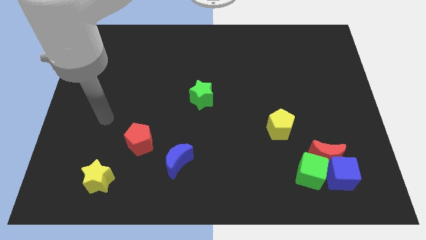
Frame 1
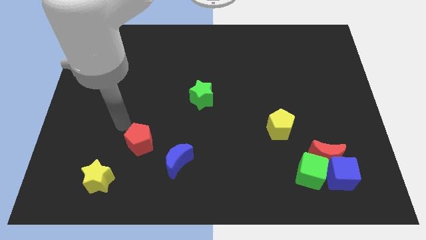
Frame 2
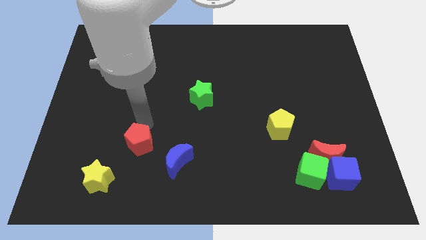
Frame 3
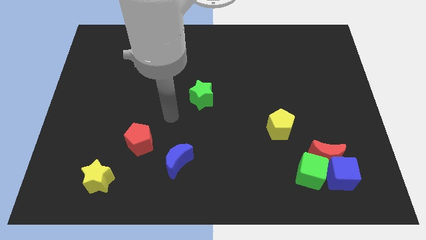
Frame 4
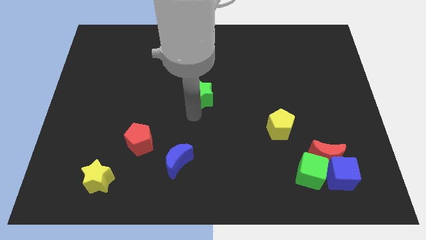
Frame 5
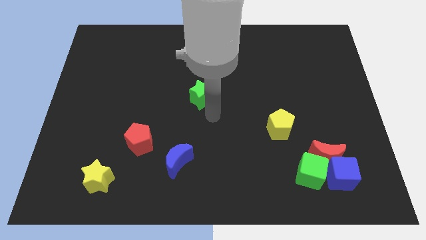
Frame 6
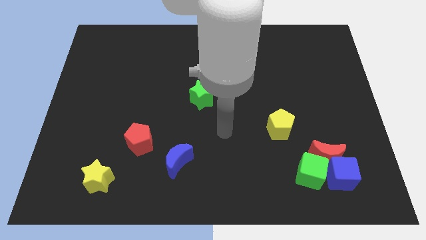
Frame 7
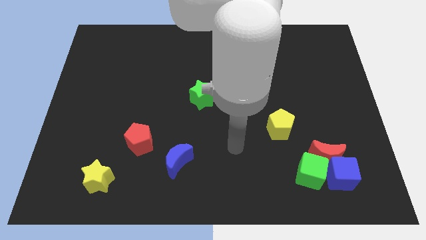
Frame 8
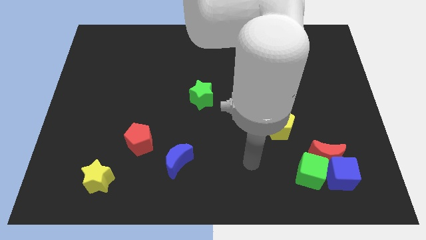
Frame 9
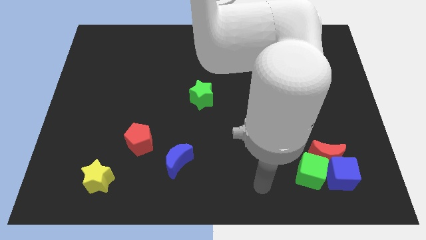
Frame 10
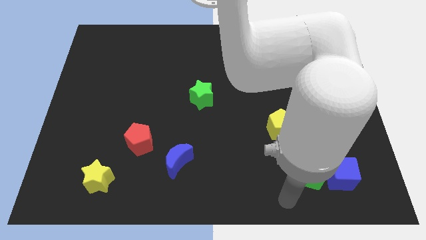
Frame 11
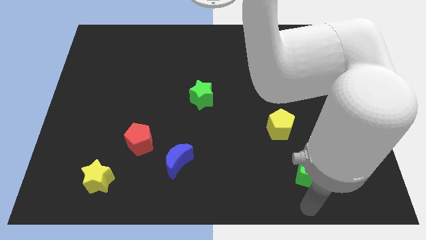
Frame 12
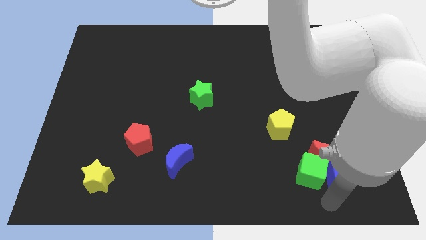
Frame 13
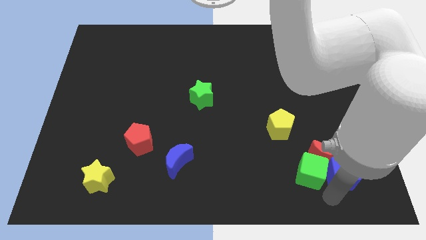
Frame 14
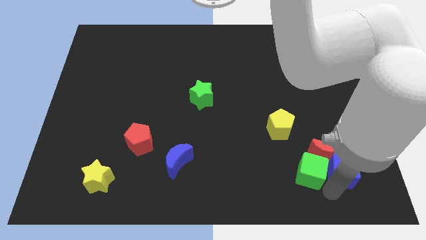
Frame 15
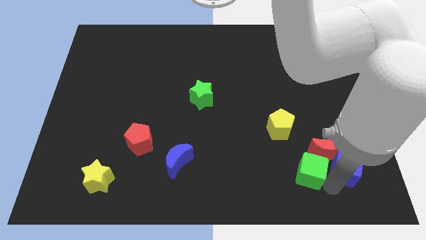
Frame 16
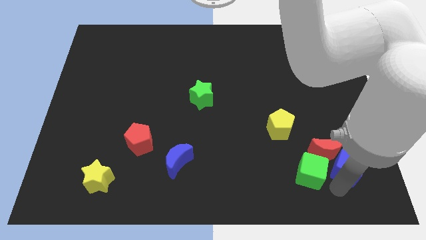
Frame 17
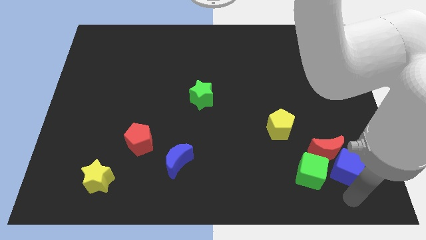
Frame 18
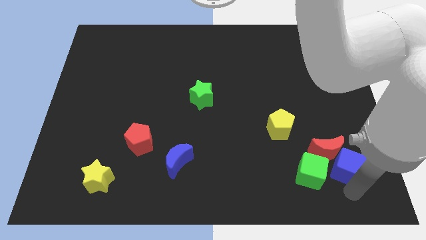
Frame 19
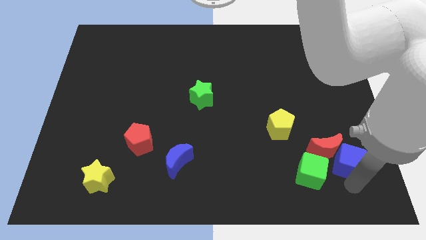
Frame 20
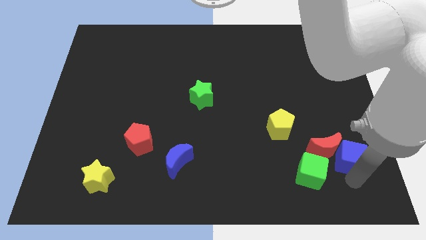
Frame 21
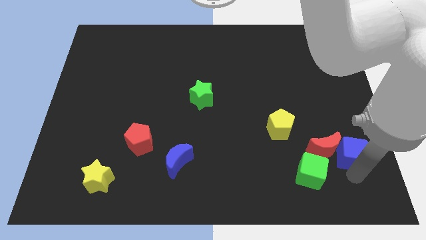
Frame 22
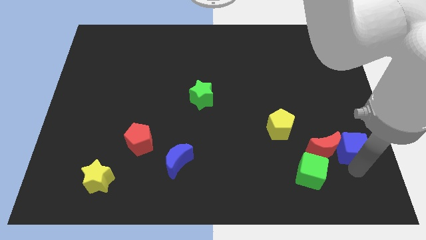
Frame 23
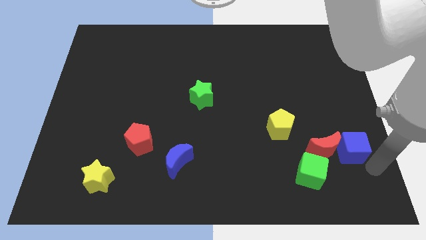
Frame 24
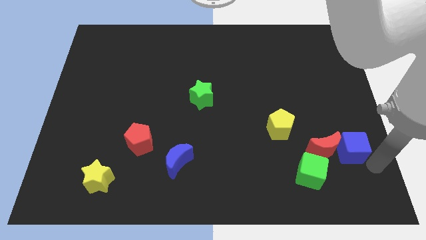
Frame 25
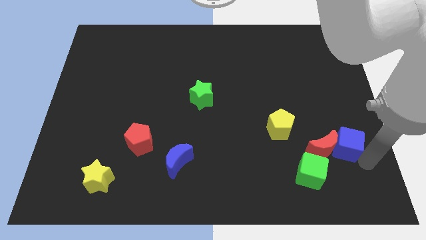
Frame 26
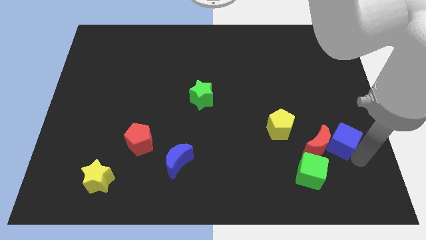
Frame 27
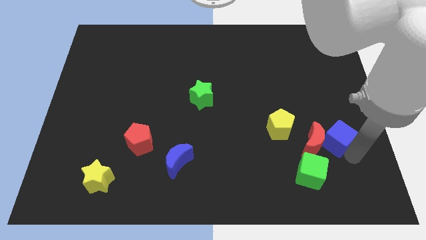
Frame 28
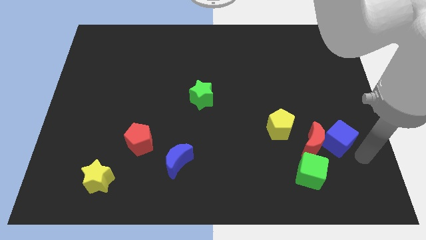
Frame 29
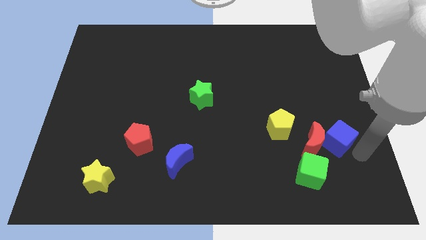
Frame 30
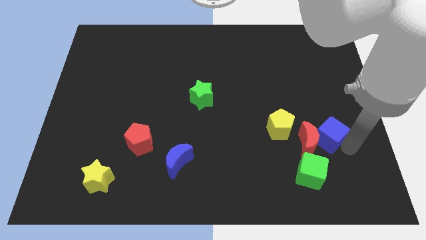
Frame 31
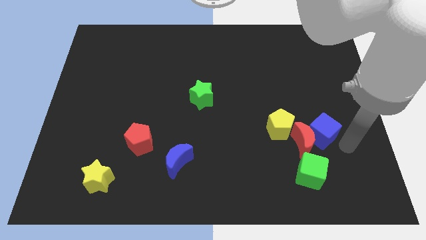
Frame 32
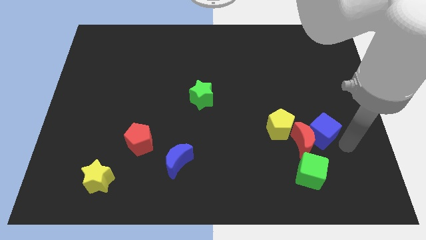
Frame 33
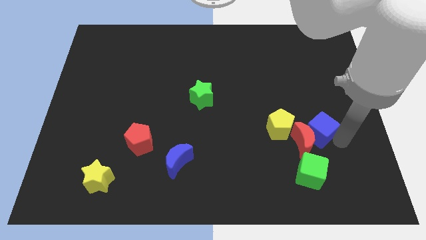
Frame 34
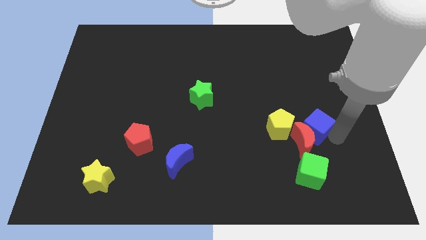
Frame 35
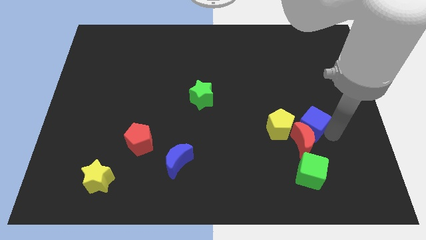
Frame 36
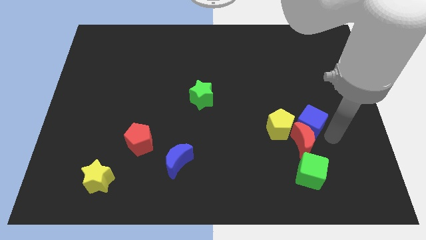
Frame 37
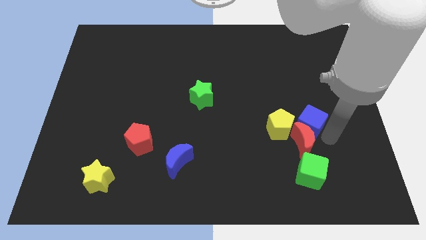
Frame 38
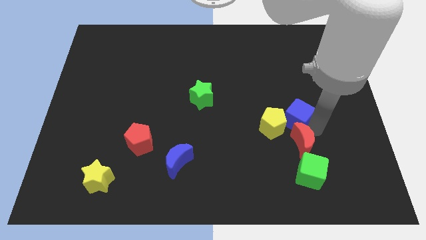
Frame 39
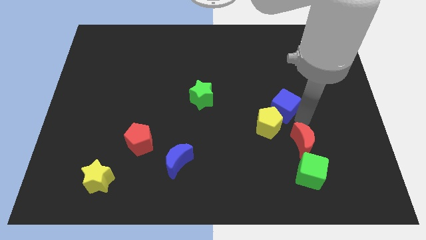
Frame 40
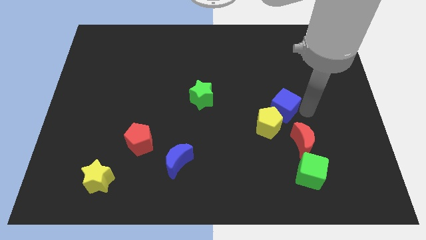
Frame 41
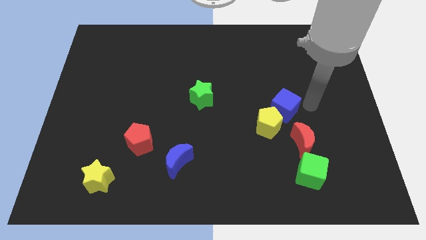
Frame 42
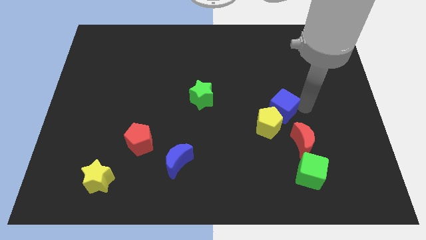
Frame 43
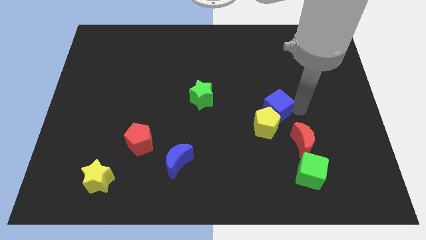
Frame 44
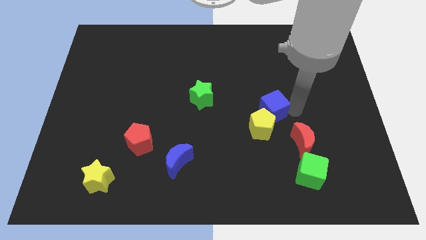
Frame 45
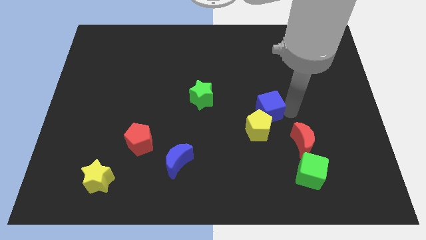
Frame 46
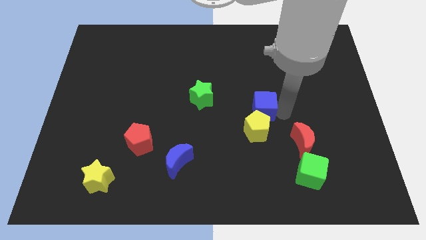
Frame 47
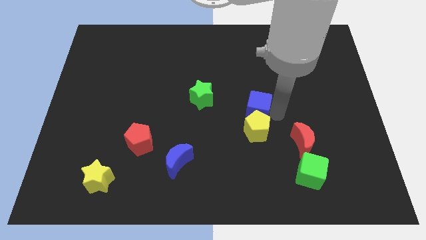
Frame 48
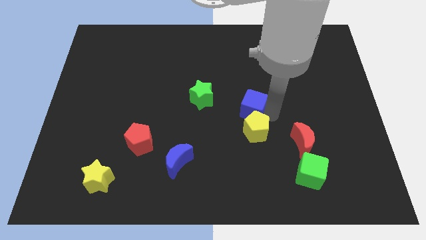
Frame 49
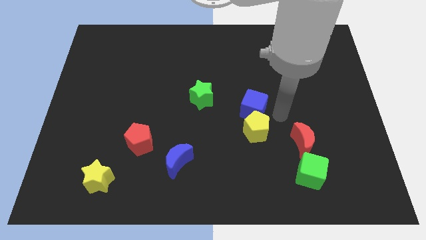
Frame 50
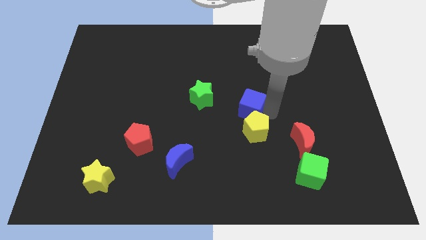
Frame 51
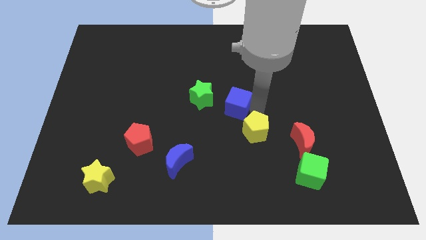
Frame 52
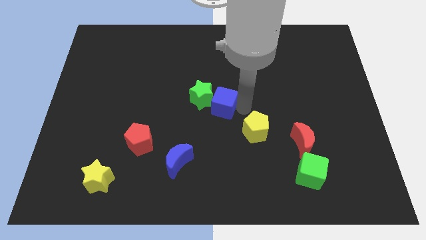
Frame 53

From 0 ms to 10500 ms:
put the blue cube next to the green star

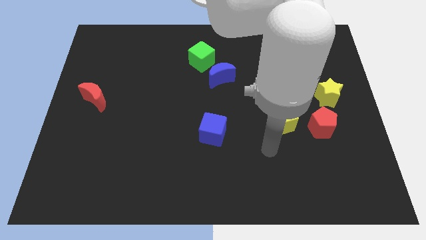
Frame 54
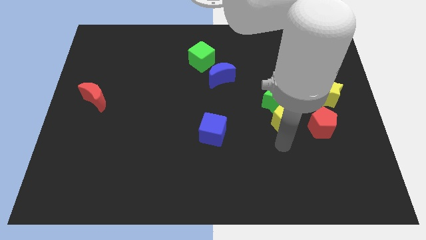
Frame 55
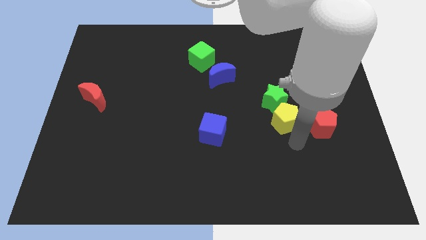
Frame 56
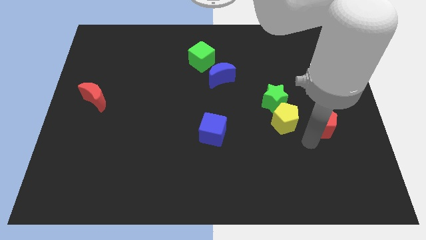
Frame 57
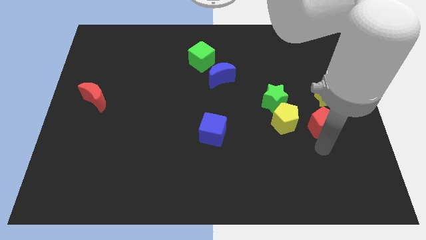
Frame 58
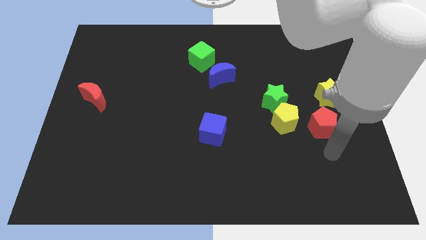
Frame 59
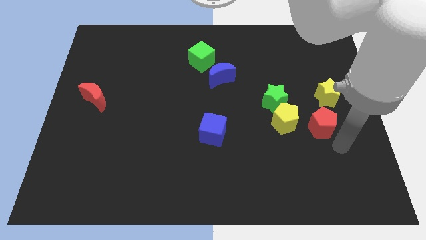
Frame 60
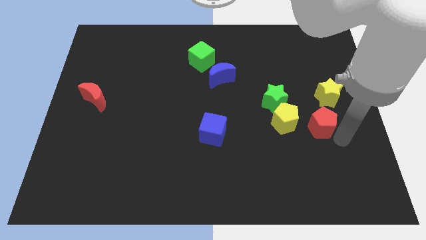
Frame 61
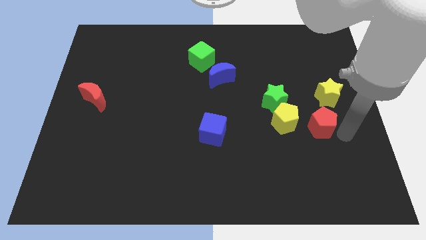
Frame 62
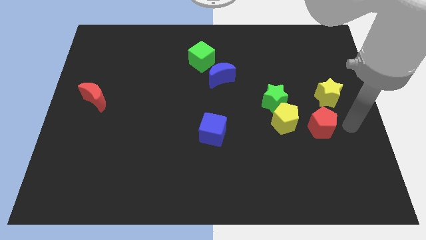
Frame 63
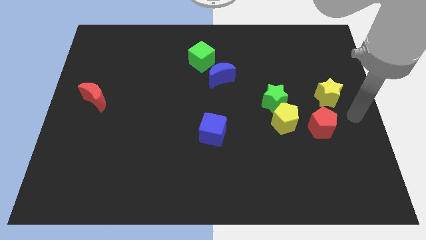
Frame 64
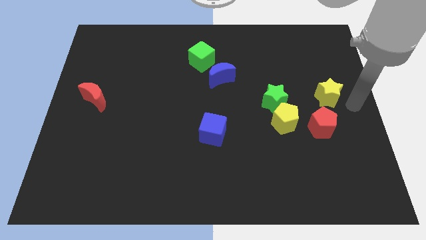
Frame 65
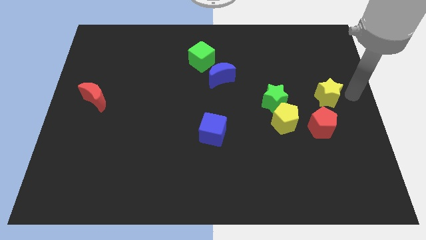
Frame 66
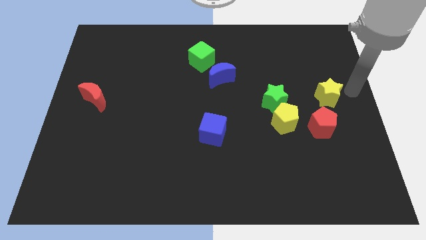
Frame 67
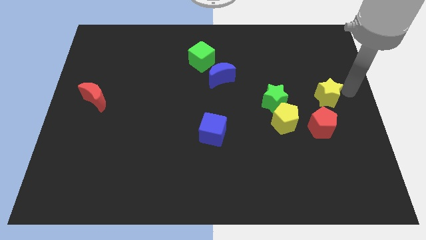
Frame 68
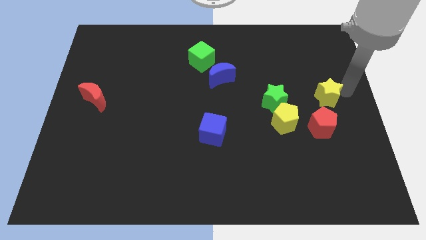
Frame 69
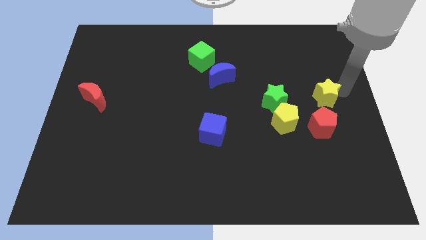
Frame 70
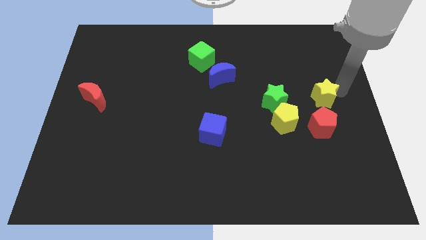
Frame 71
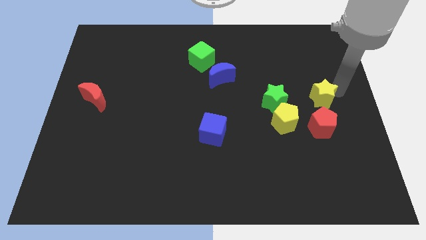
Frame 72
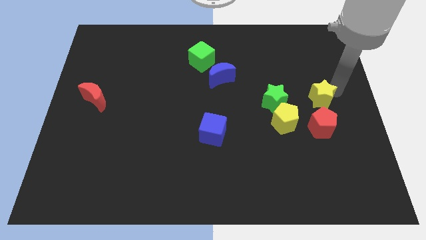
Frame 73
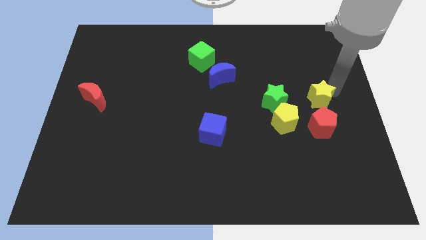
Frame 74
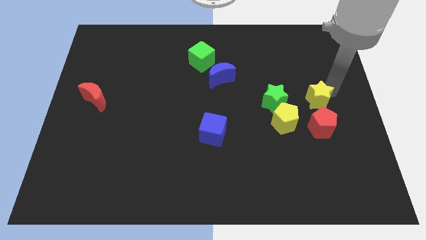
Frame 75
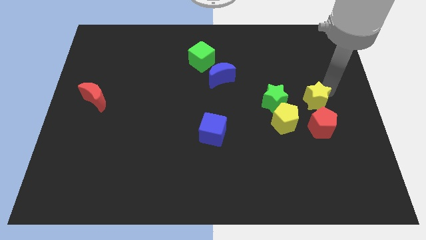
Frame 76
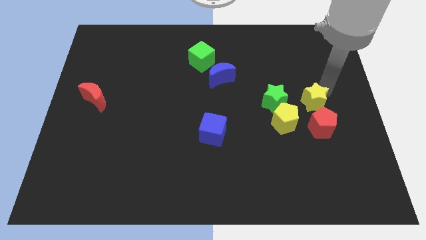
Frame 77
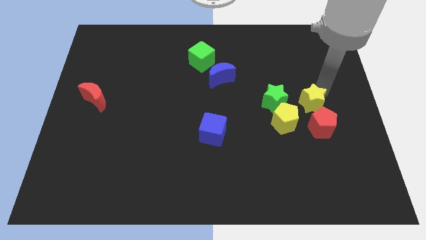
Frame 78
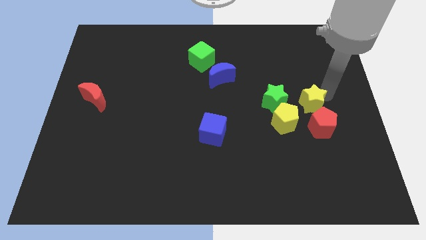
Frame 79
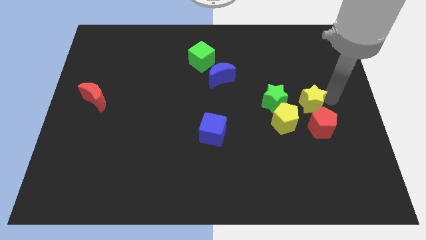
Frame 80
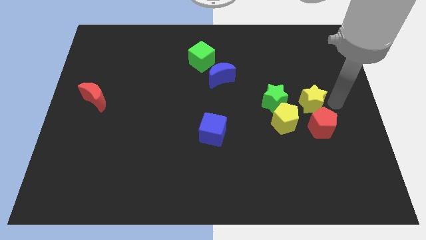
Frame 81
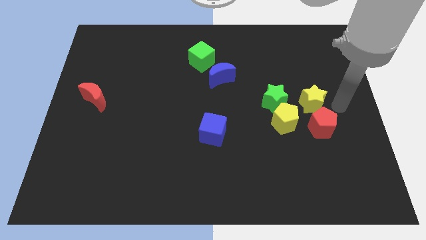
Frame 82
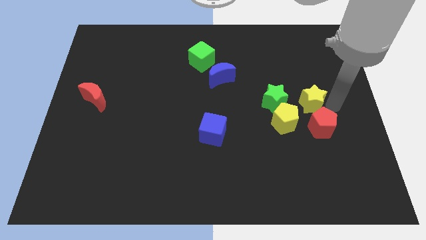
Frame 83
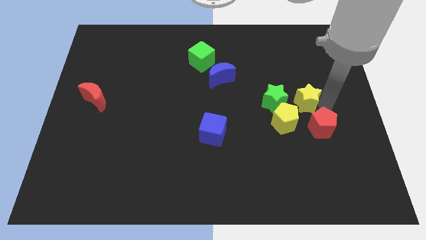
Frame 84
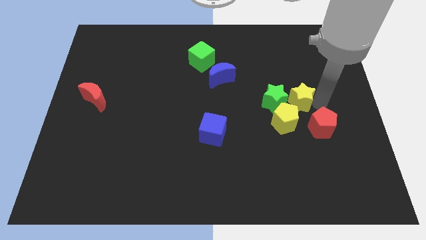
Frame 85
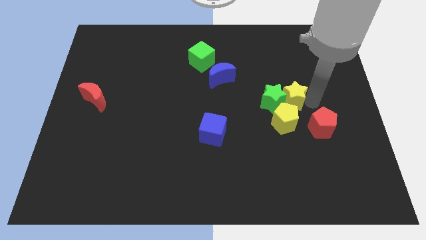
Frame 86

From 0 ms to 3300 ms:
put the yellow star to the green star
